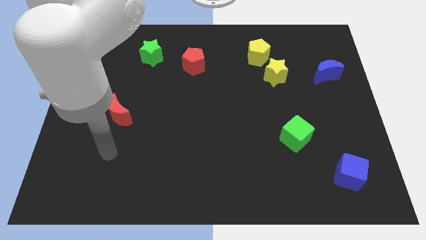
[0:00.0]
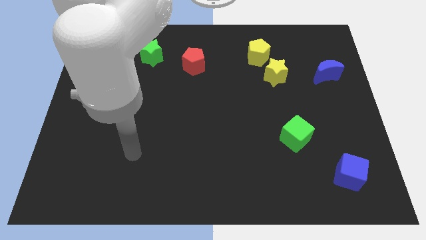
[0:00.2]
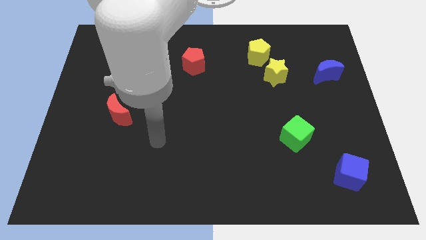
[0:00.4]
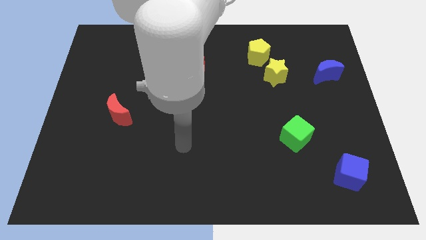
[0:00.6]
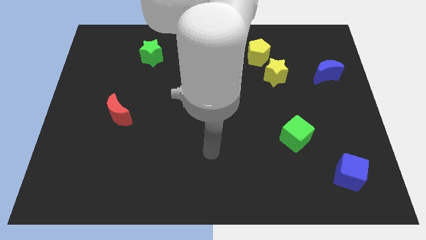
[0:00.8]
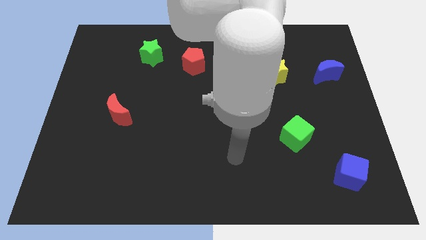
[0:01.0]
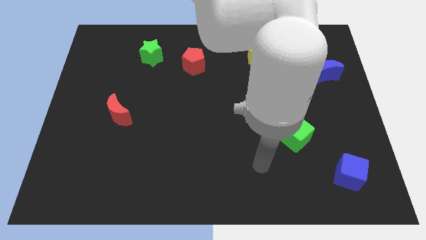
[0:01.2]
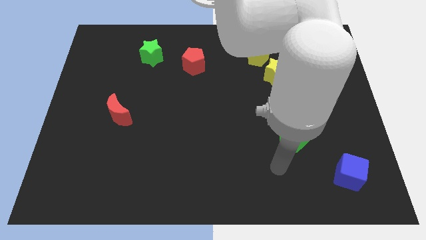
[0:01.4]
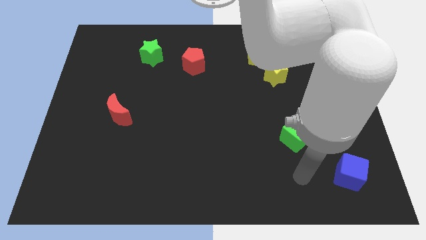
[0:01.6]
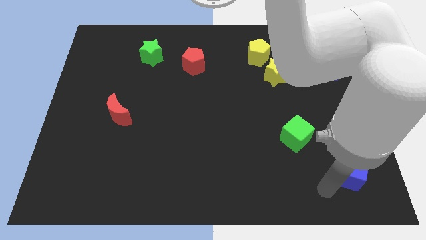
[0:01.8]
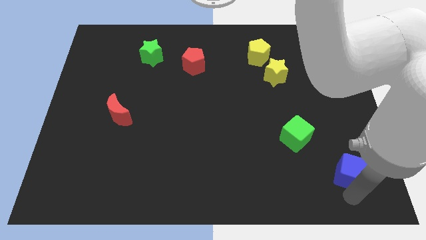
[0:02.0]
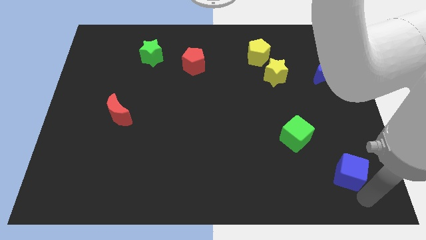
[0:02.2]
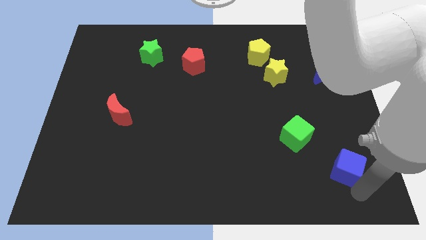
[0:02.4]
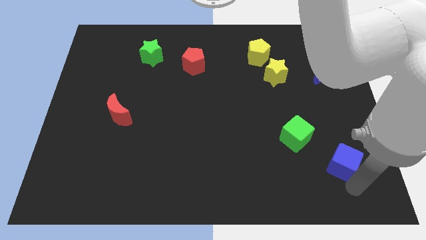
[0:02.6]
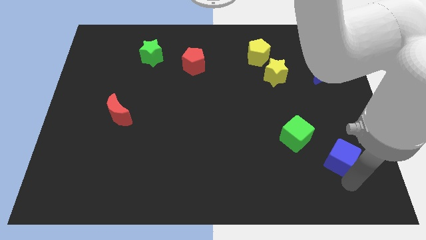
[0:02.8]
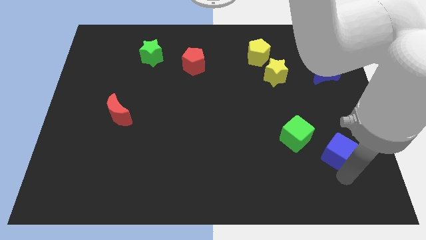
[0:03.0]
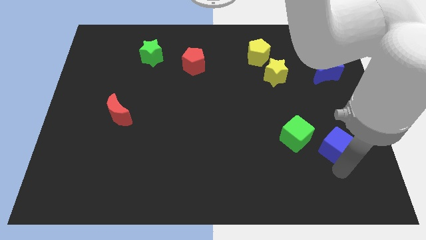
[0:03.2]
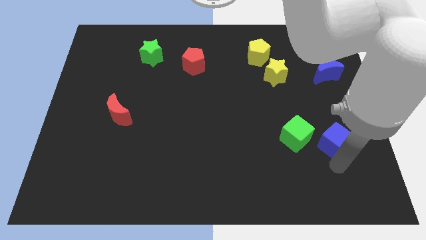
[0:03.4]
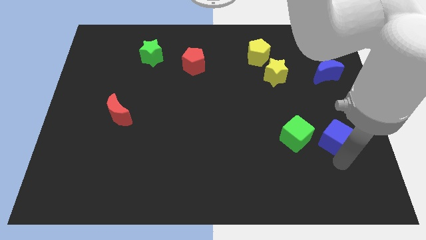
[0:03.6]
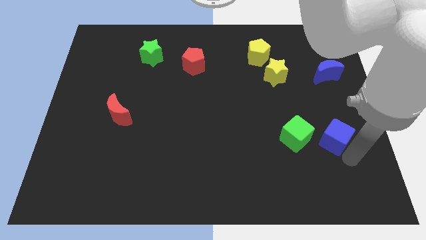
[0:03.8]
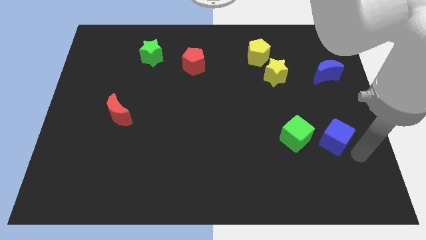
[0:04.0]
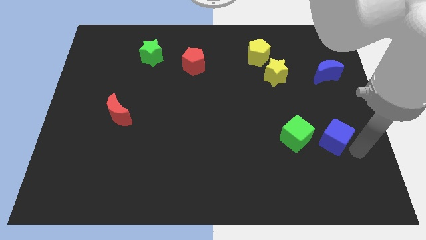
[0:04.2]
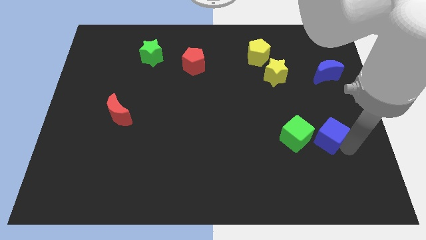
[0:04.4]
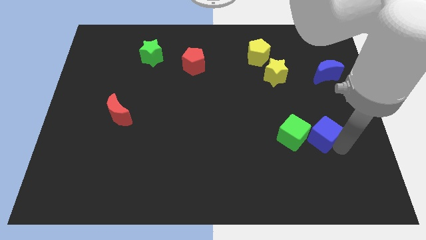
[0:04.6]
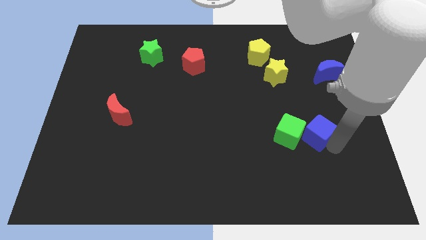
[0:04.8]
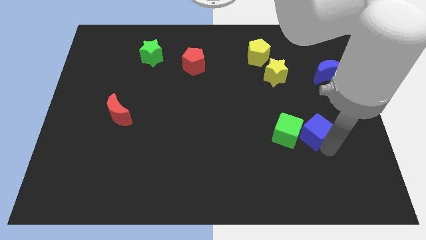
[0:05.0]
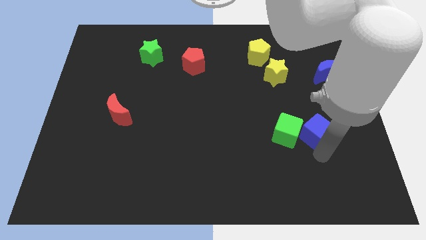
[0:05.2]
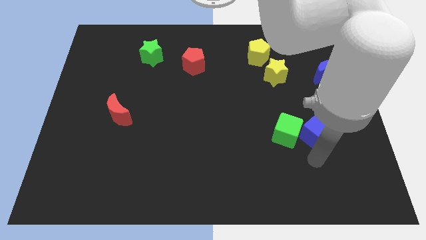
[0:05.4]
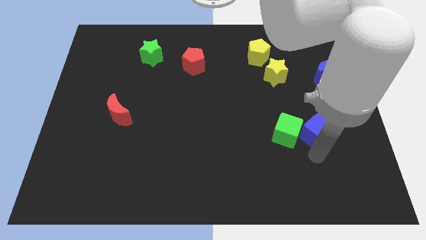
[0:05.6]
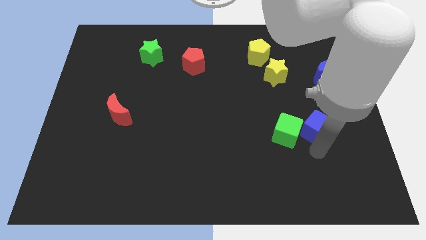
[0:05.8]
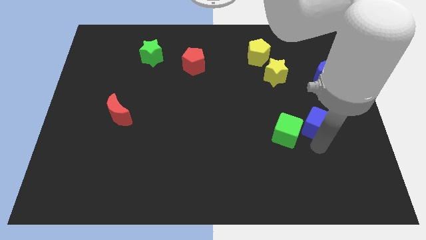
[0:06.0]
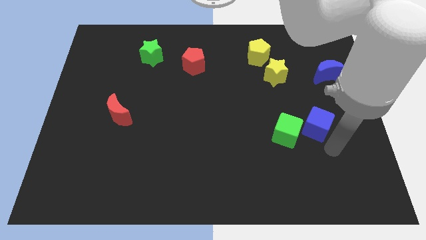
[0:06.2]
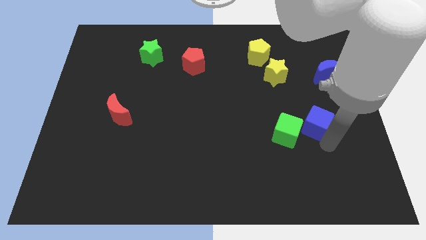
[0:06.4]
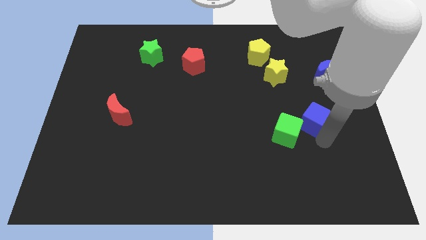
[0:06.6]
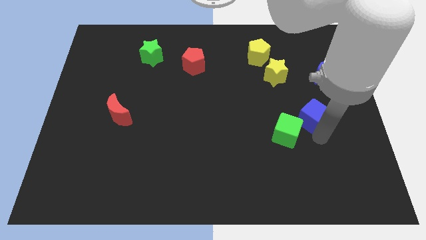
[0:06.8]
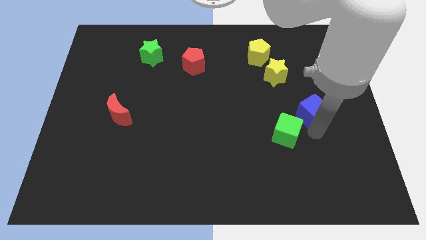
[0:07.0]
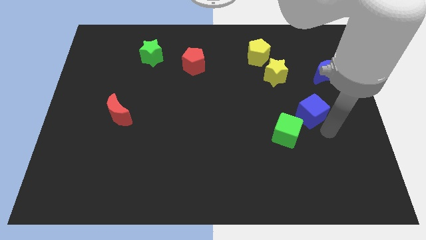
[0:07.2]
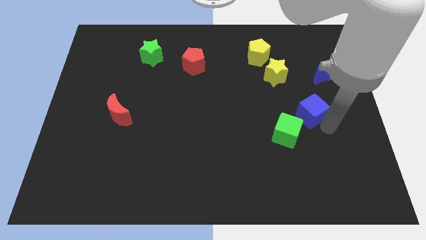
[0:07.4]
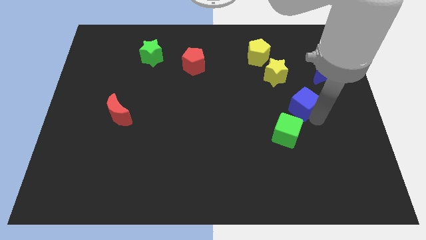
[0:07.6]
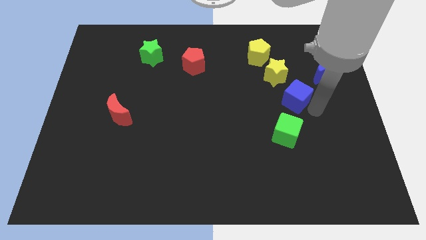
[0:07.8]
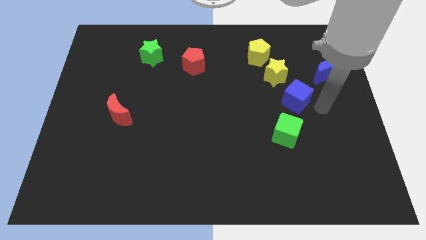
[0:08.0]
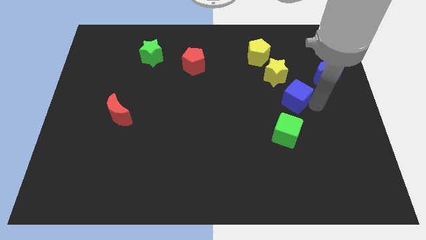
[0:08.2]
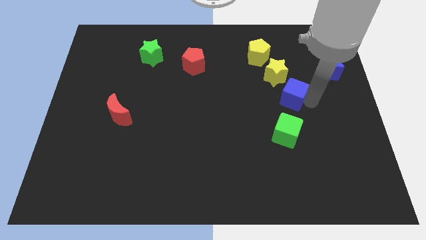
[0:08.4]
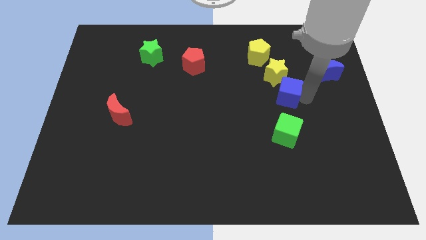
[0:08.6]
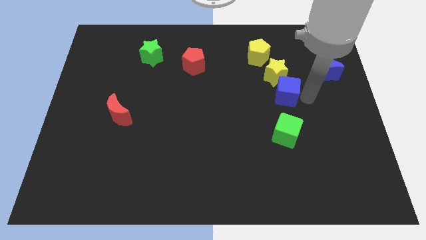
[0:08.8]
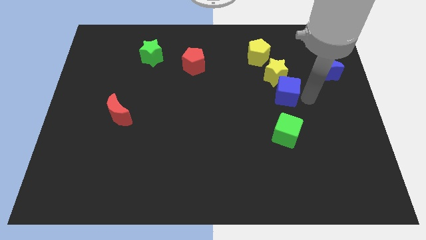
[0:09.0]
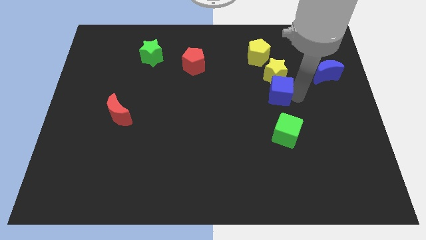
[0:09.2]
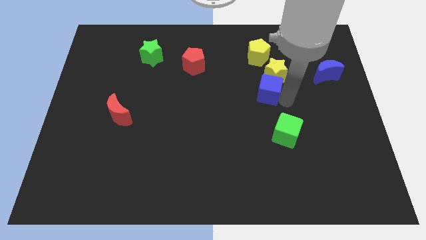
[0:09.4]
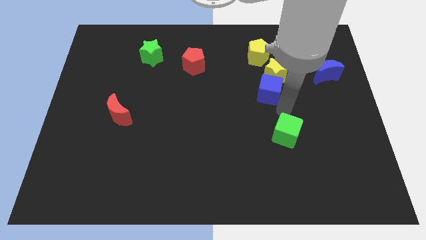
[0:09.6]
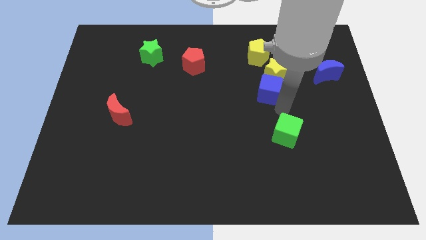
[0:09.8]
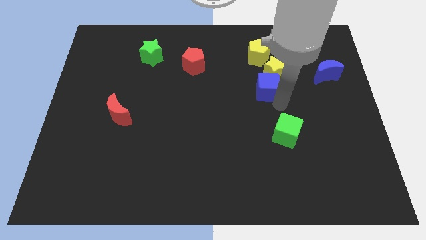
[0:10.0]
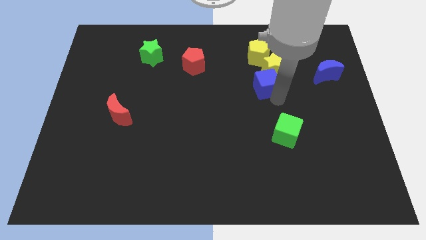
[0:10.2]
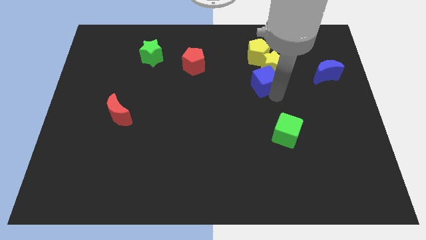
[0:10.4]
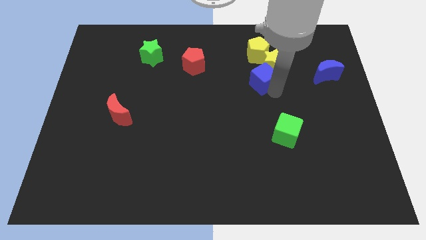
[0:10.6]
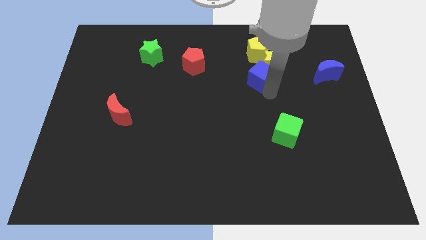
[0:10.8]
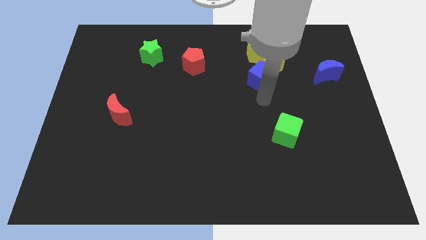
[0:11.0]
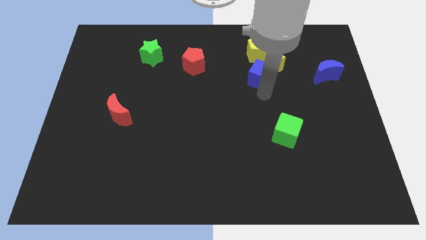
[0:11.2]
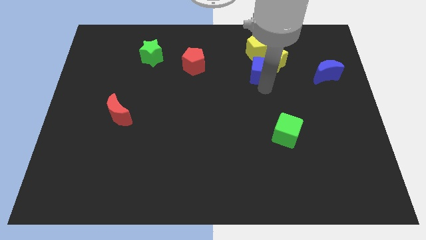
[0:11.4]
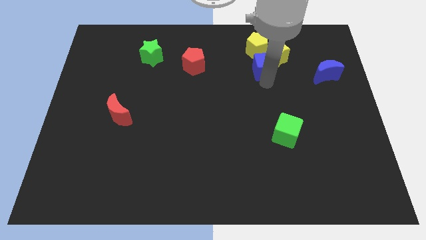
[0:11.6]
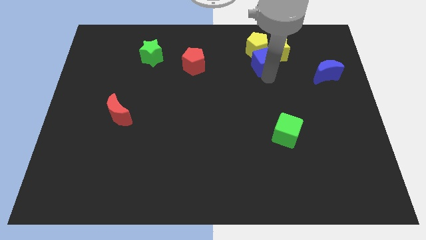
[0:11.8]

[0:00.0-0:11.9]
slide the blue cube to the yellow pentagon

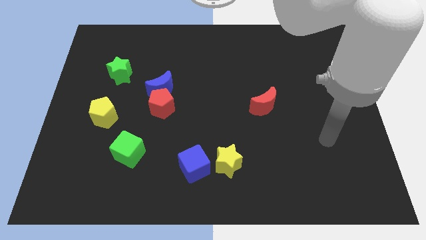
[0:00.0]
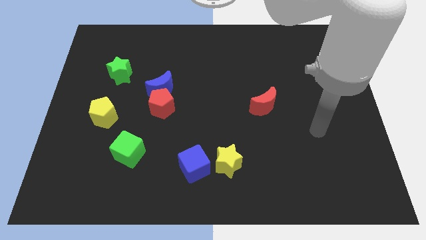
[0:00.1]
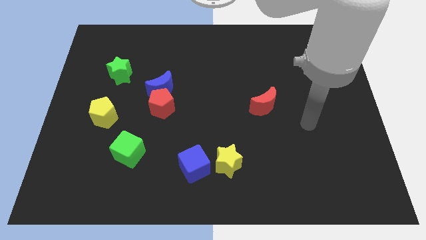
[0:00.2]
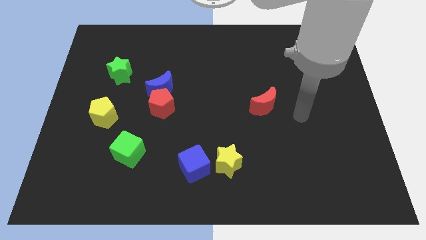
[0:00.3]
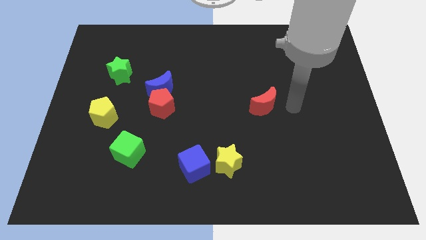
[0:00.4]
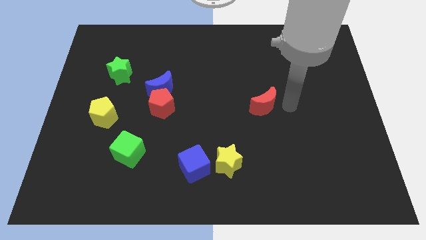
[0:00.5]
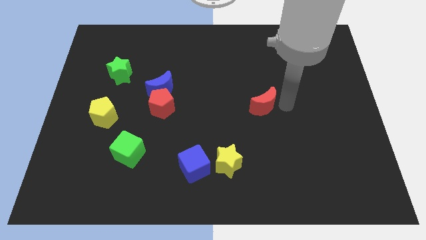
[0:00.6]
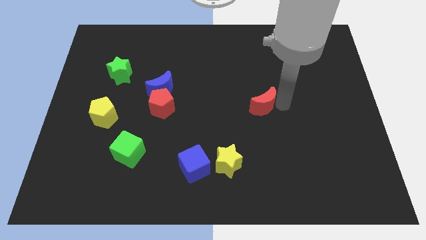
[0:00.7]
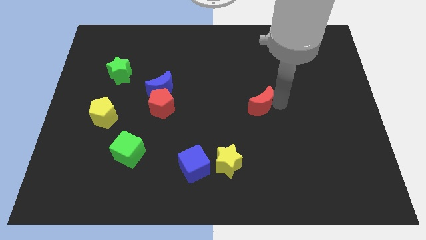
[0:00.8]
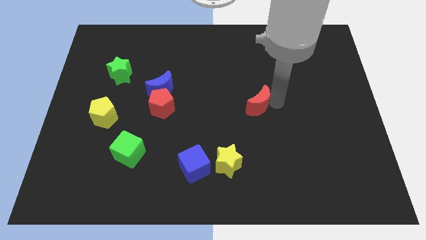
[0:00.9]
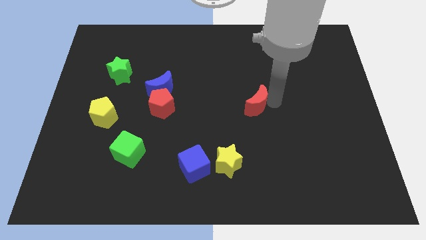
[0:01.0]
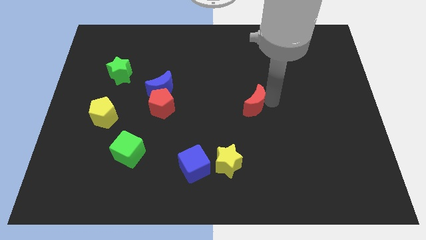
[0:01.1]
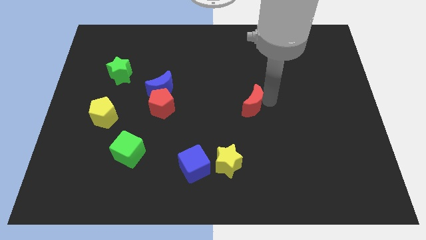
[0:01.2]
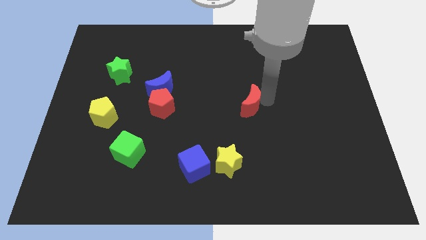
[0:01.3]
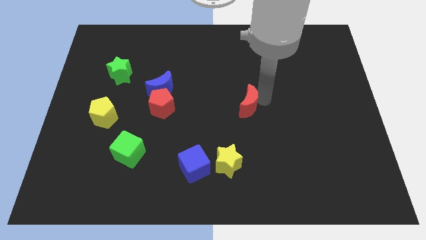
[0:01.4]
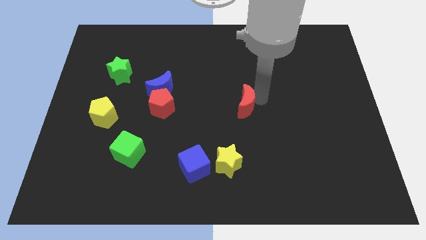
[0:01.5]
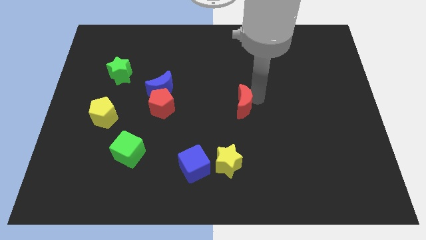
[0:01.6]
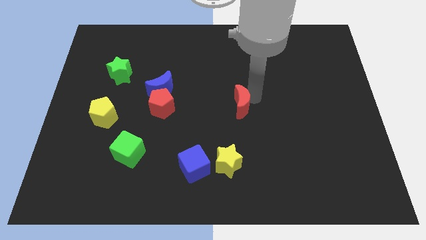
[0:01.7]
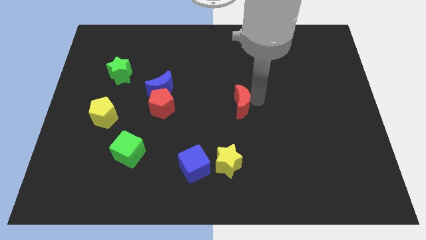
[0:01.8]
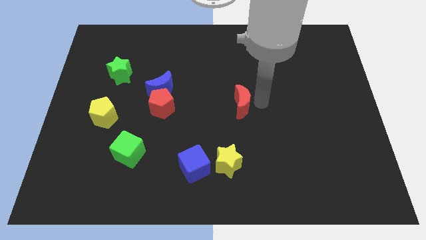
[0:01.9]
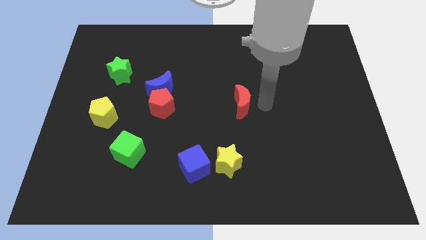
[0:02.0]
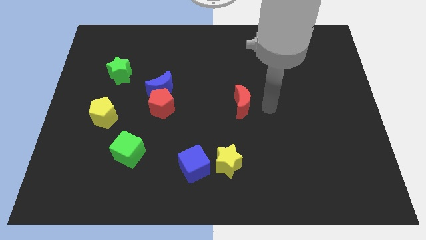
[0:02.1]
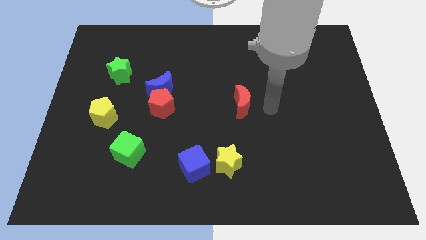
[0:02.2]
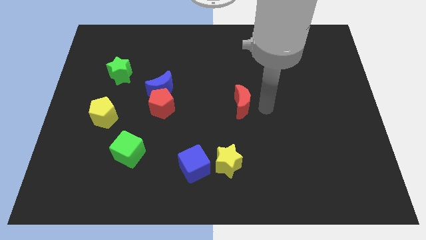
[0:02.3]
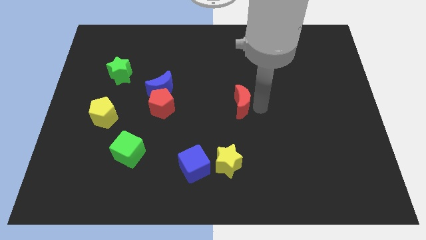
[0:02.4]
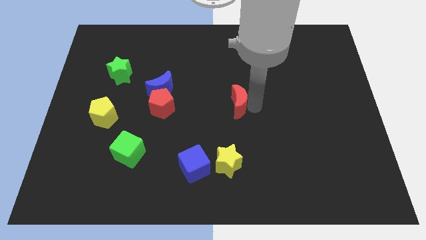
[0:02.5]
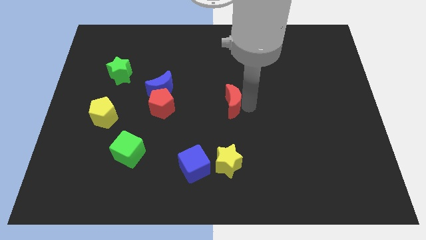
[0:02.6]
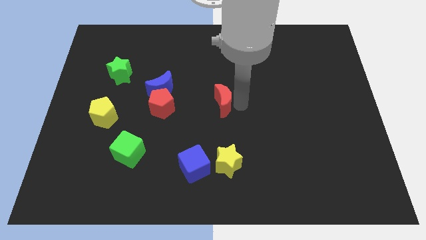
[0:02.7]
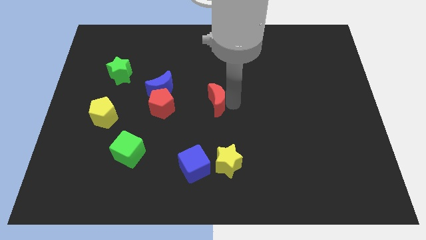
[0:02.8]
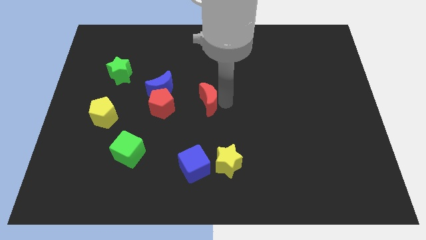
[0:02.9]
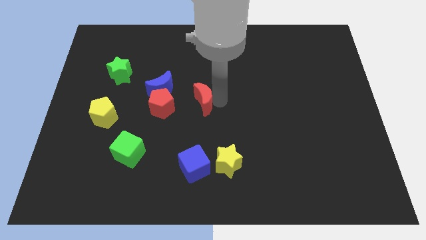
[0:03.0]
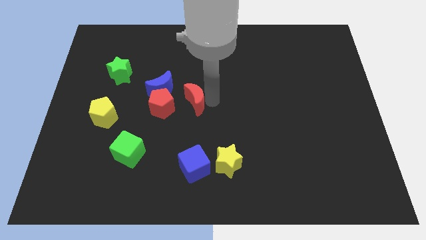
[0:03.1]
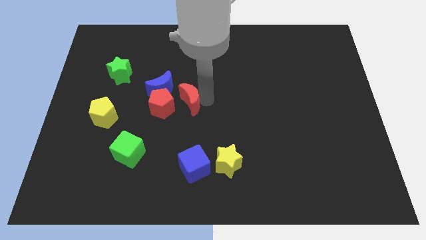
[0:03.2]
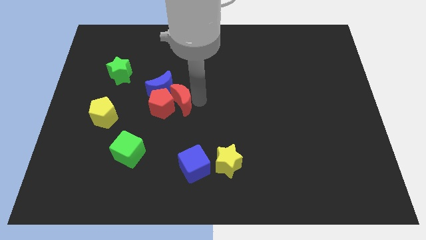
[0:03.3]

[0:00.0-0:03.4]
push the red moon towards the red pentagon
